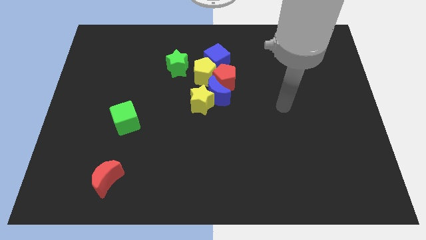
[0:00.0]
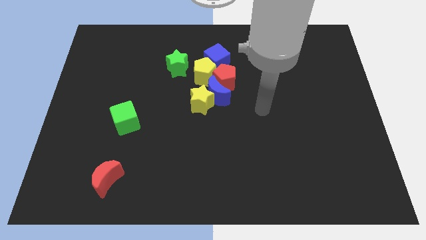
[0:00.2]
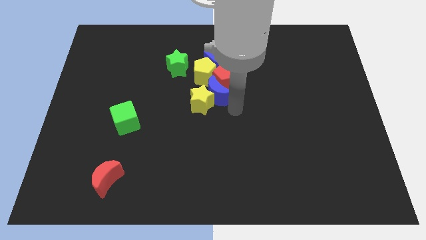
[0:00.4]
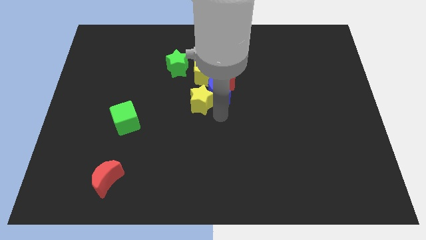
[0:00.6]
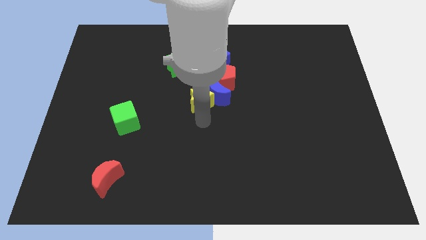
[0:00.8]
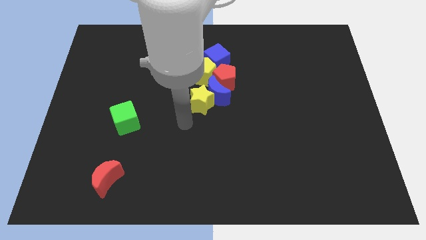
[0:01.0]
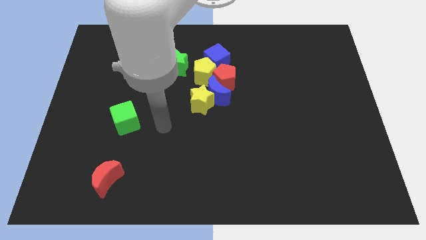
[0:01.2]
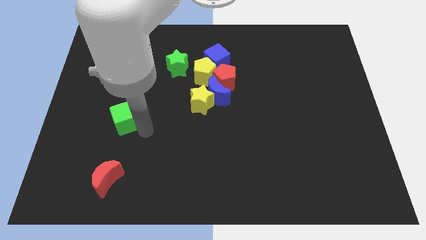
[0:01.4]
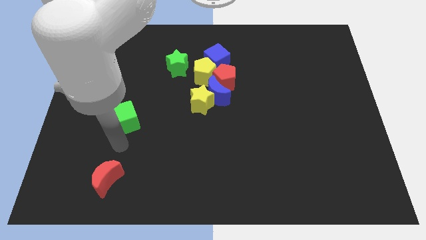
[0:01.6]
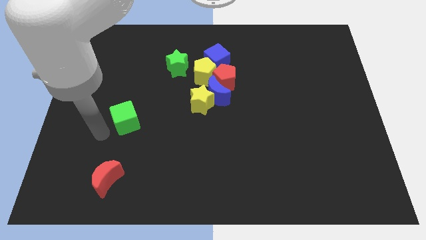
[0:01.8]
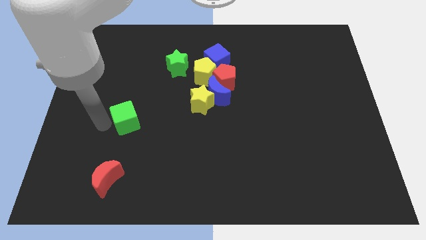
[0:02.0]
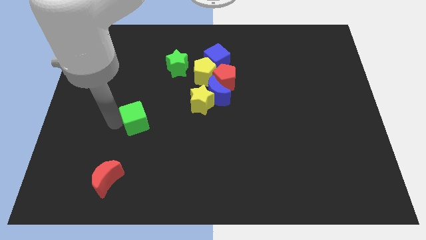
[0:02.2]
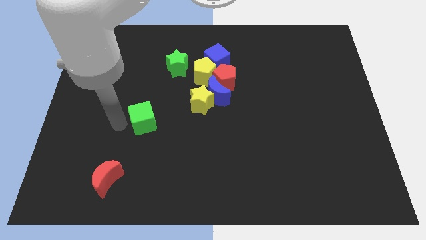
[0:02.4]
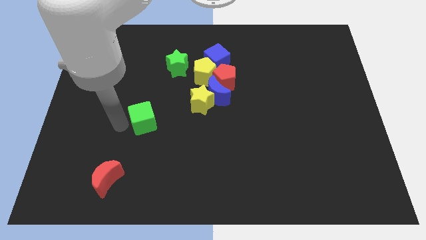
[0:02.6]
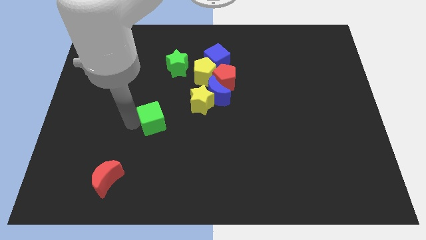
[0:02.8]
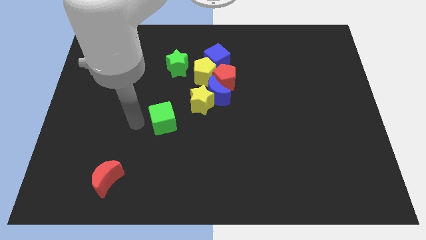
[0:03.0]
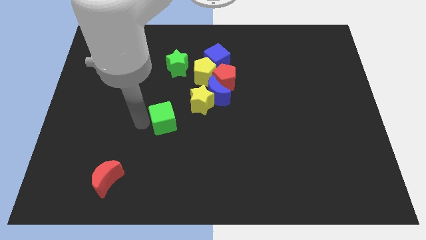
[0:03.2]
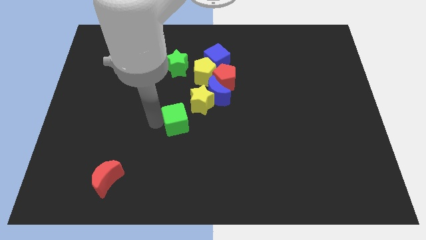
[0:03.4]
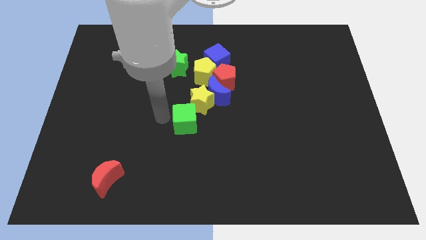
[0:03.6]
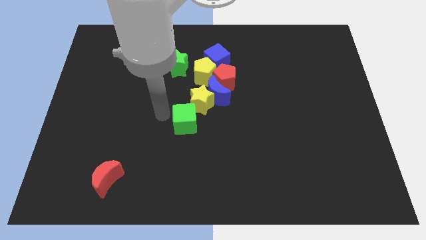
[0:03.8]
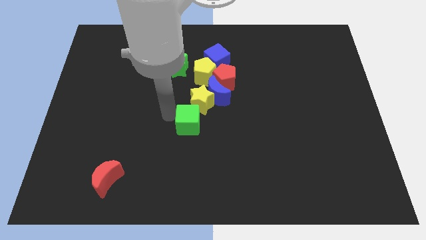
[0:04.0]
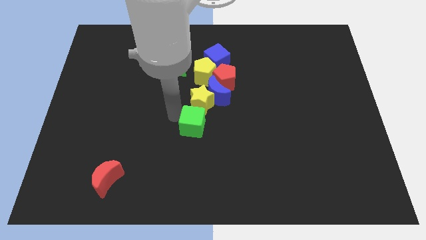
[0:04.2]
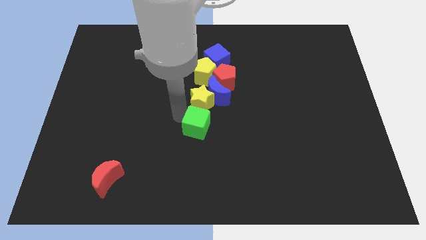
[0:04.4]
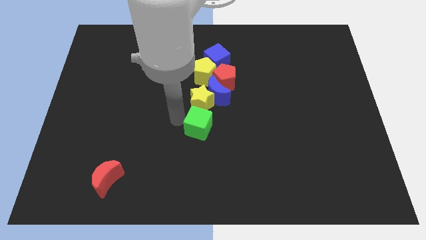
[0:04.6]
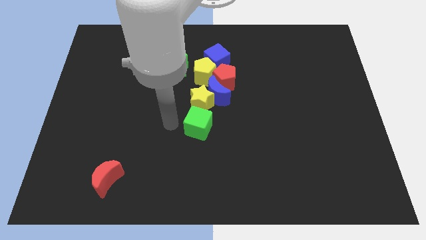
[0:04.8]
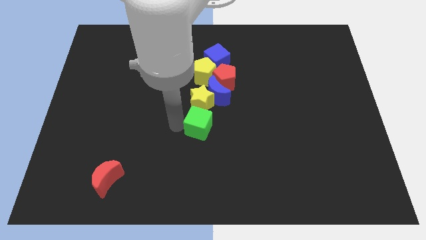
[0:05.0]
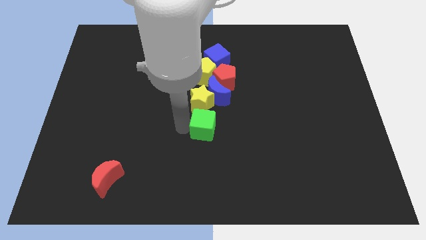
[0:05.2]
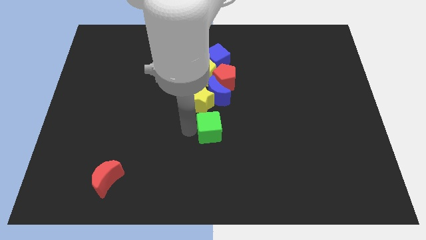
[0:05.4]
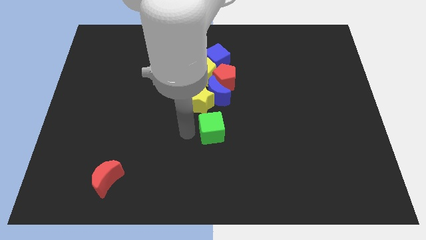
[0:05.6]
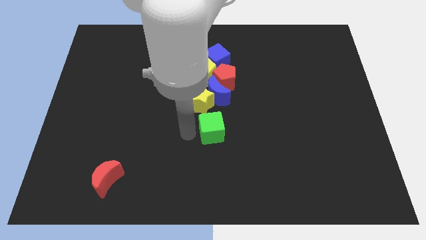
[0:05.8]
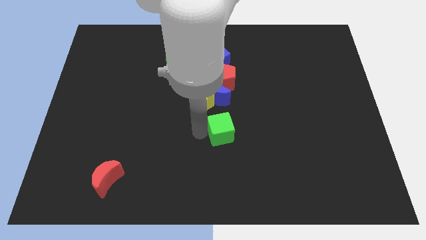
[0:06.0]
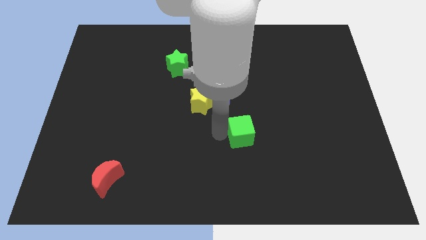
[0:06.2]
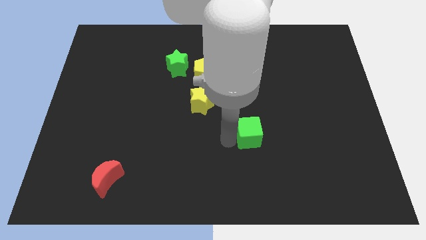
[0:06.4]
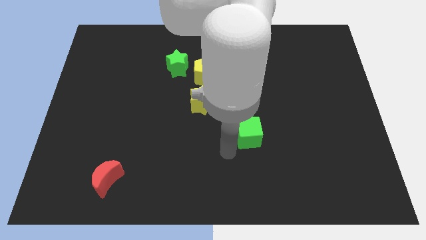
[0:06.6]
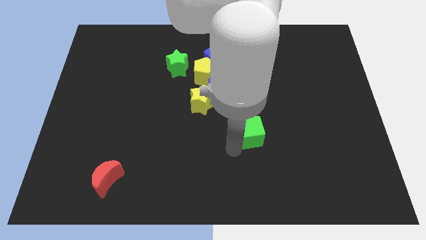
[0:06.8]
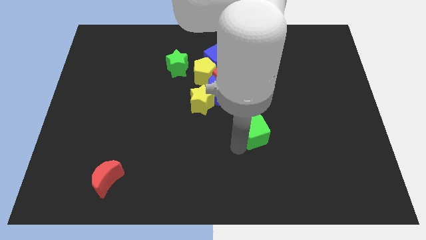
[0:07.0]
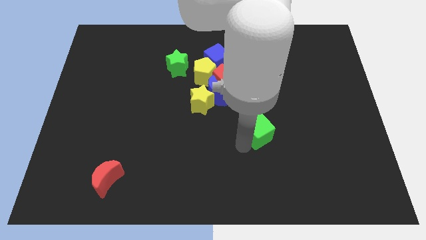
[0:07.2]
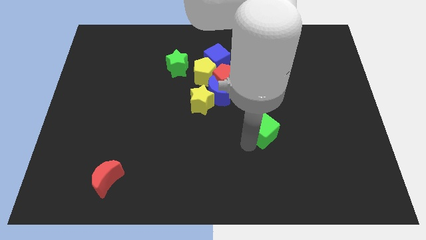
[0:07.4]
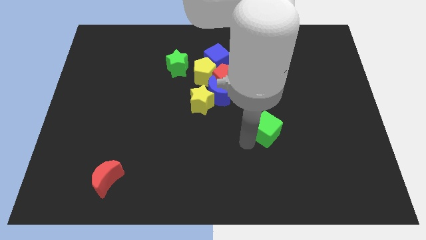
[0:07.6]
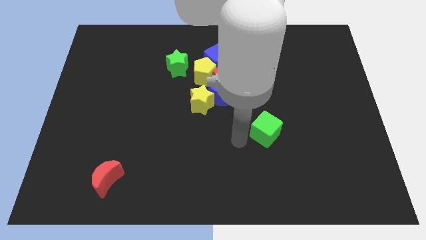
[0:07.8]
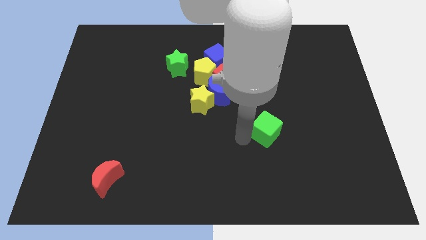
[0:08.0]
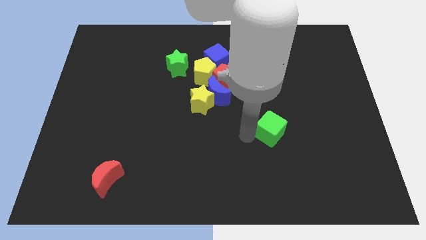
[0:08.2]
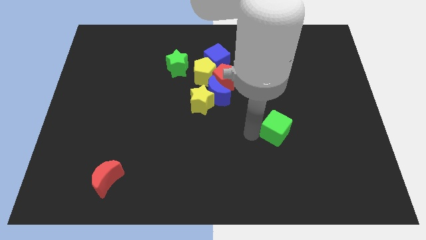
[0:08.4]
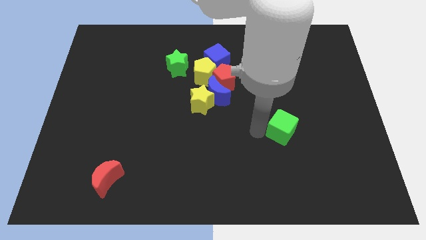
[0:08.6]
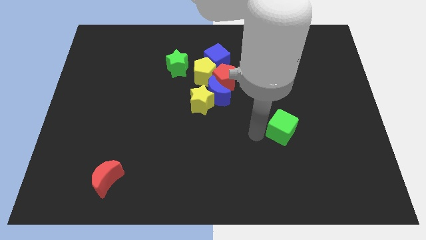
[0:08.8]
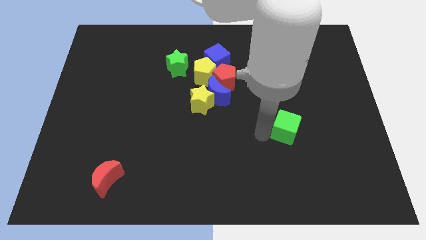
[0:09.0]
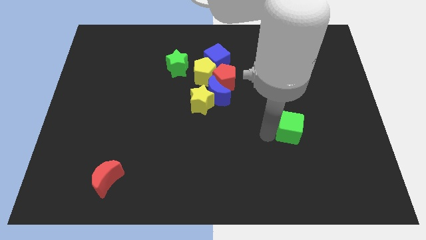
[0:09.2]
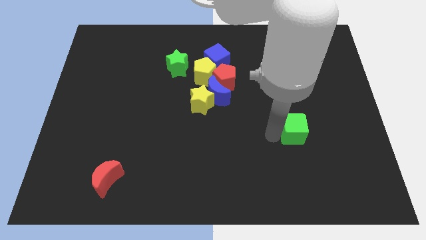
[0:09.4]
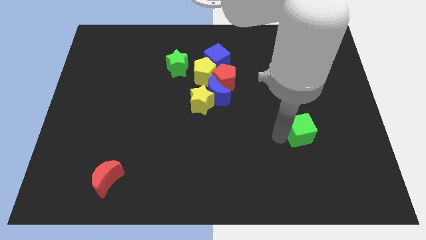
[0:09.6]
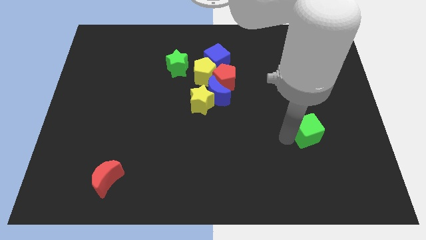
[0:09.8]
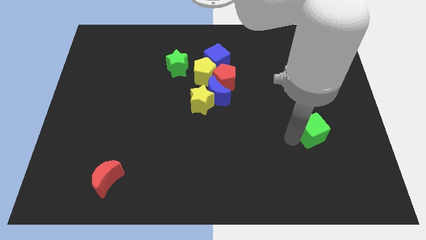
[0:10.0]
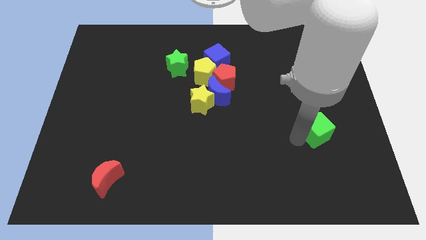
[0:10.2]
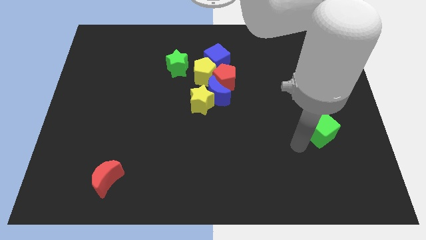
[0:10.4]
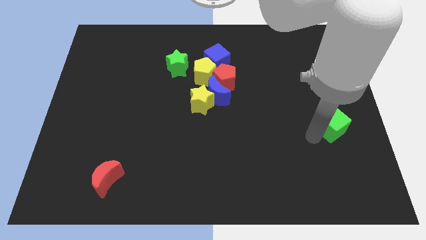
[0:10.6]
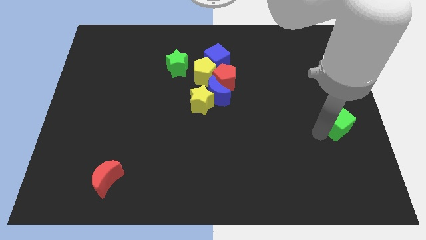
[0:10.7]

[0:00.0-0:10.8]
move the green cube to the center right
